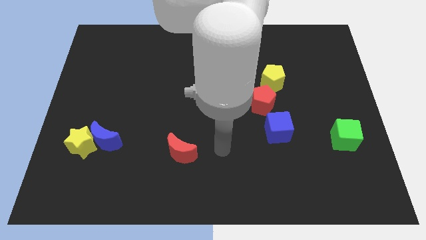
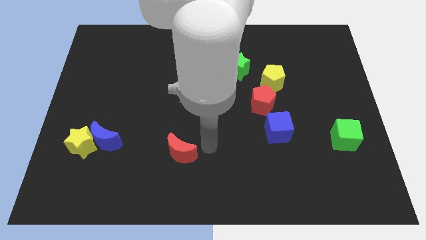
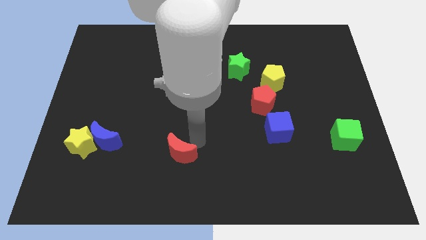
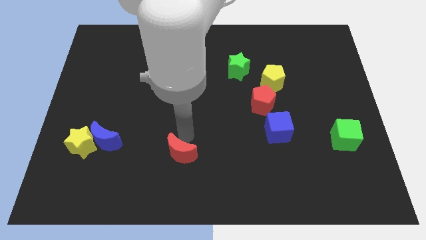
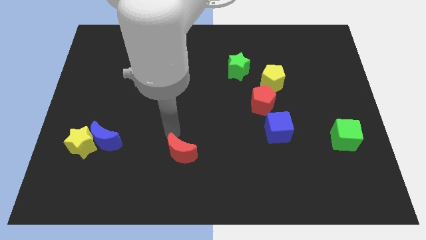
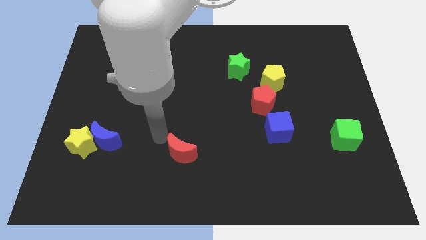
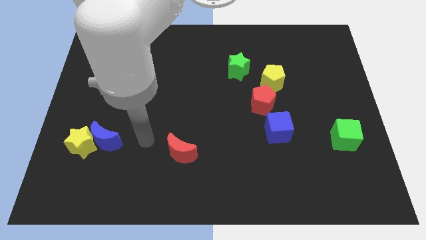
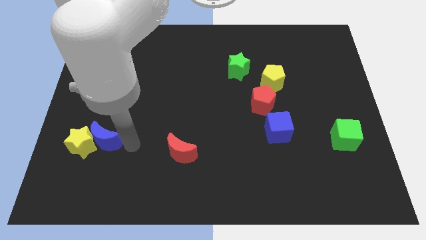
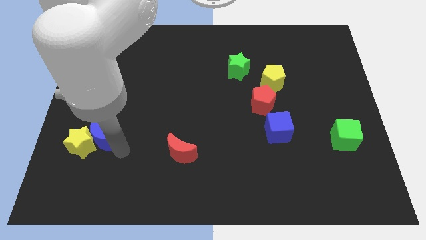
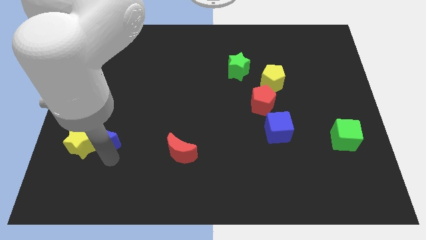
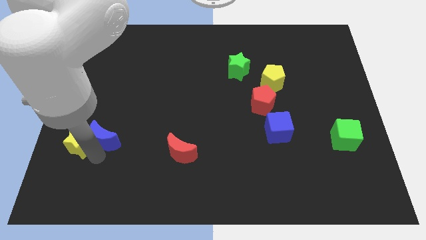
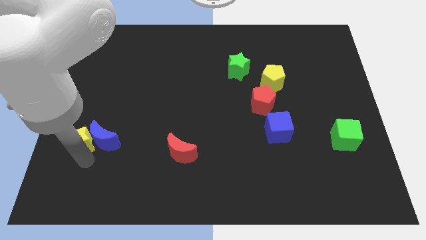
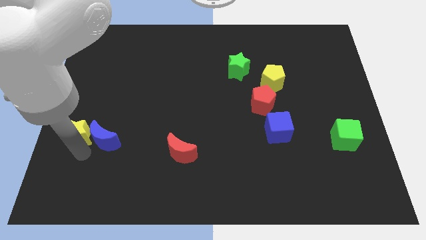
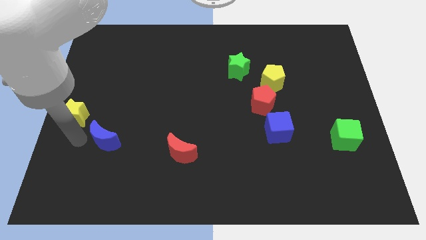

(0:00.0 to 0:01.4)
move the blue moon away from the yellow star

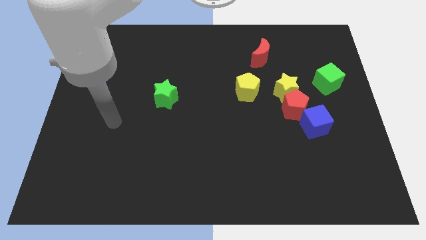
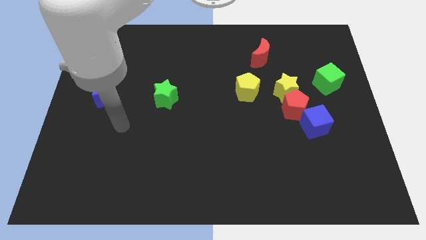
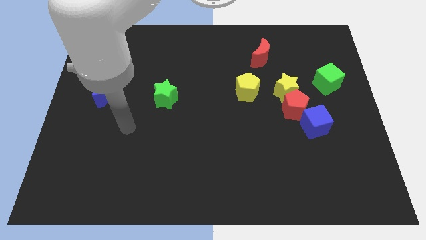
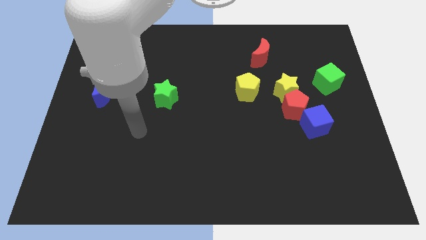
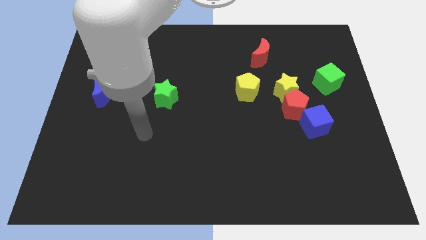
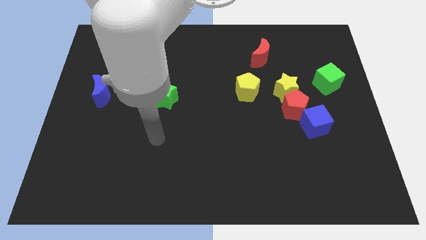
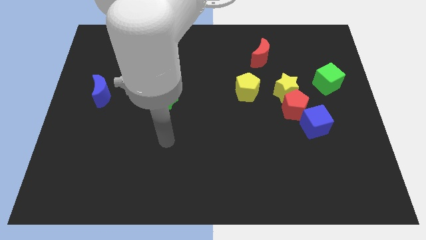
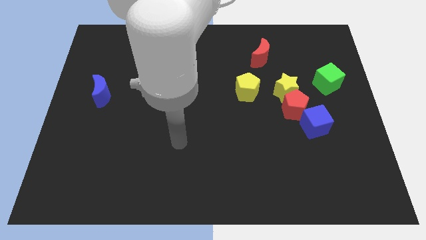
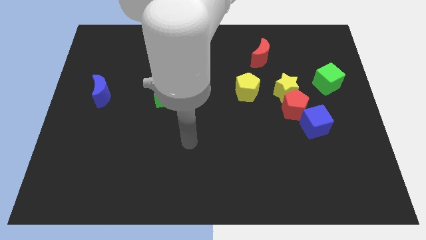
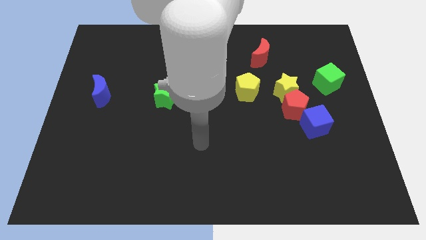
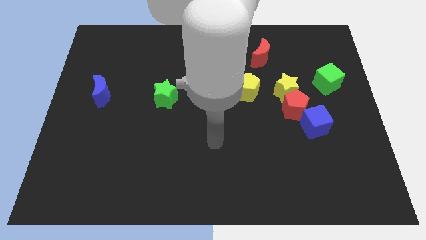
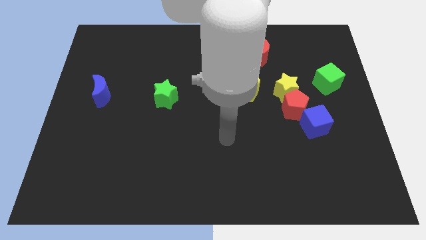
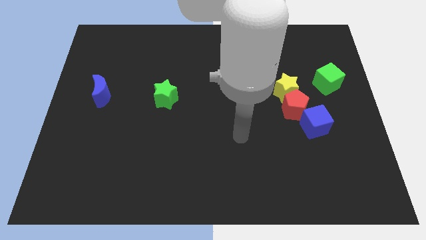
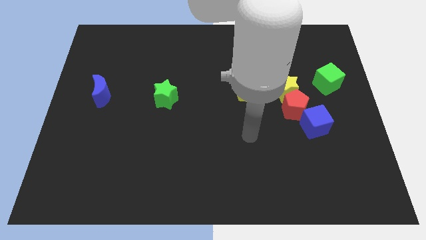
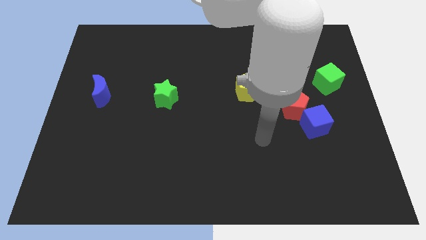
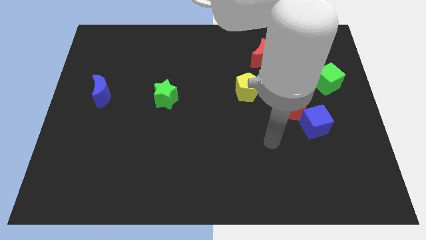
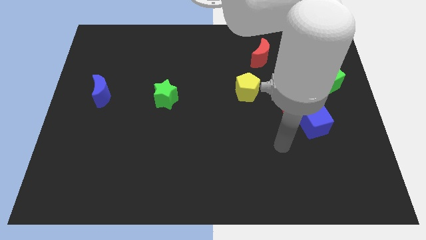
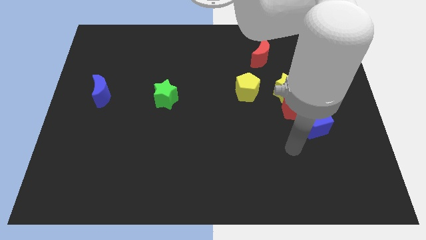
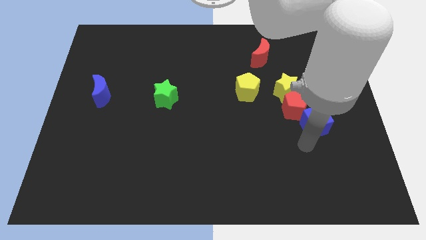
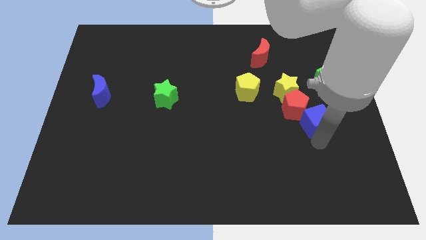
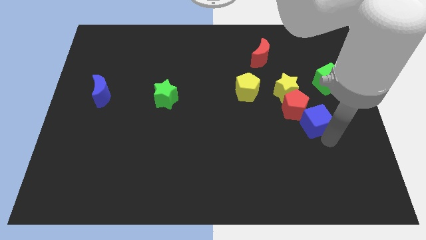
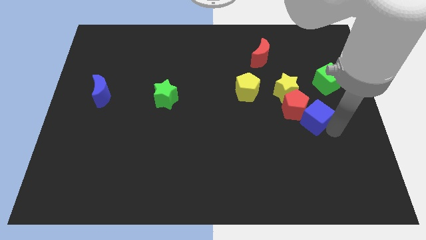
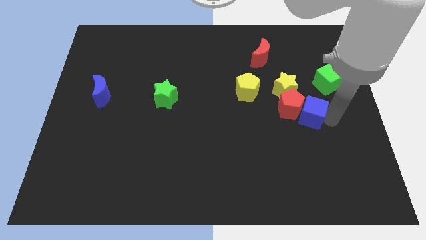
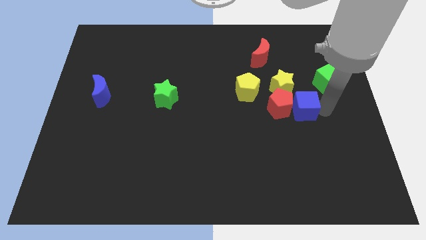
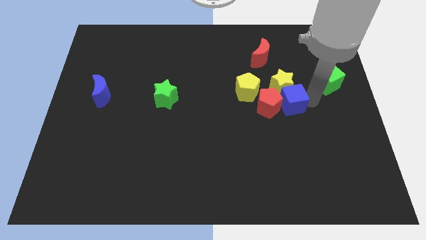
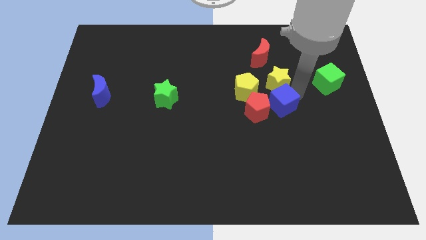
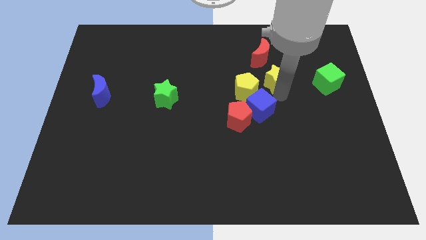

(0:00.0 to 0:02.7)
separate the red pentagon from the yellow star and blue cube

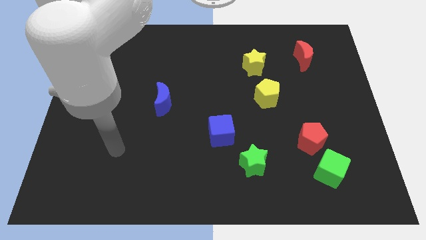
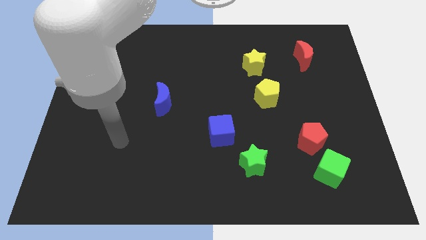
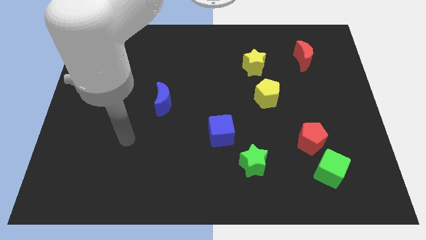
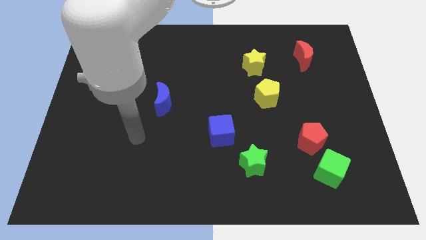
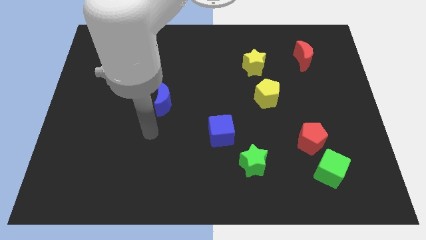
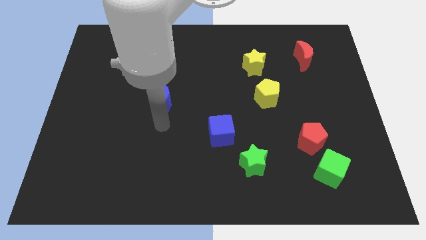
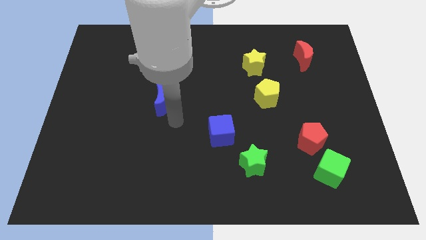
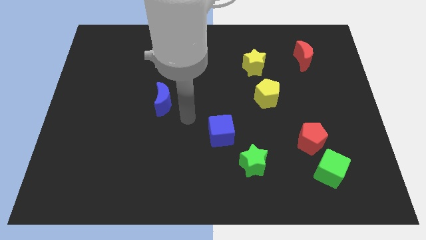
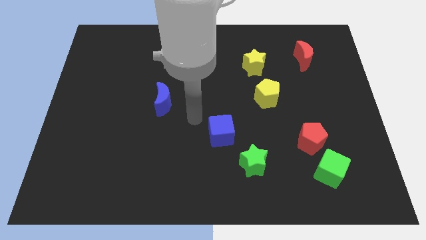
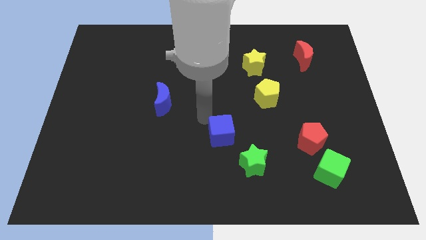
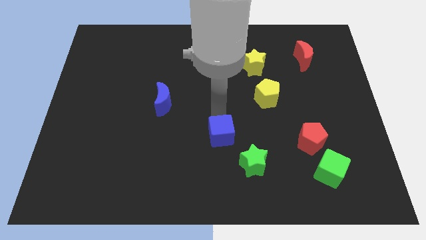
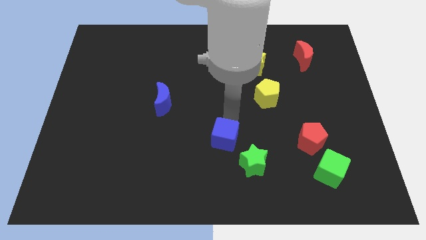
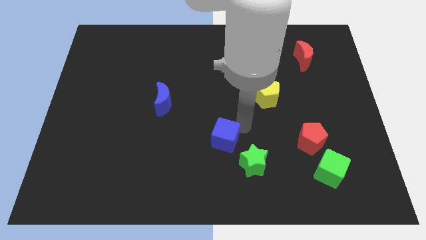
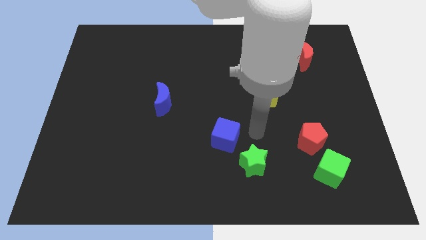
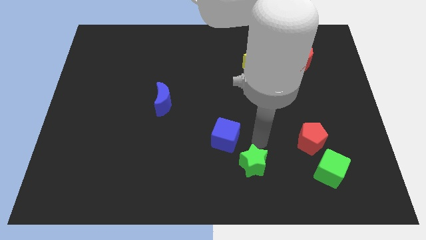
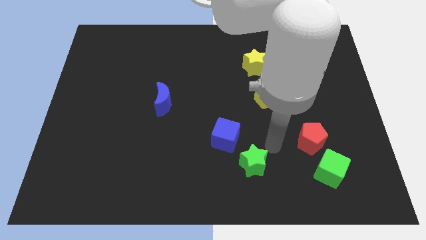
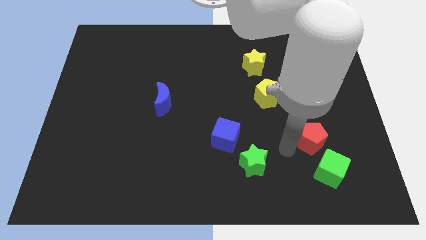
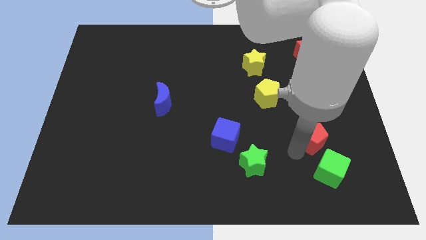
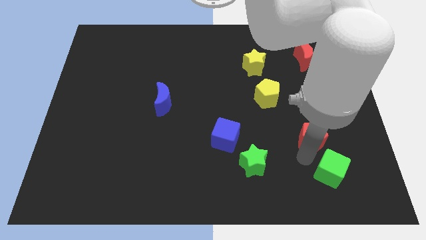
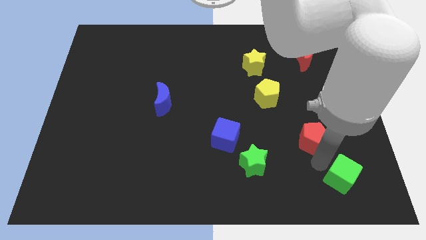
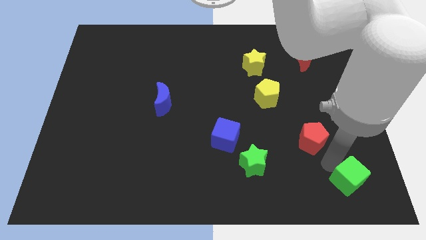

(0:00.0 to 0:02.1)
separate the red pentagon from the green cube

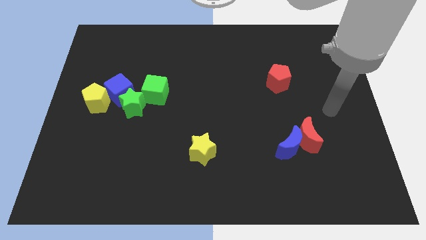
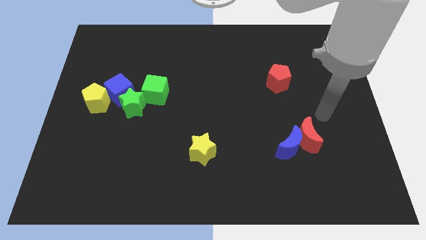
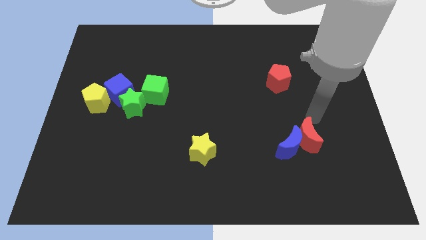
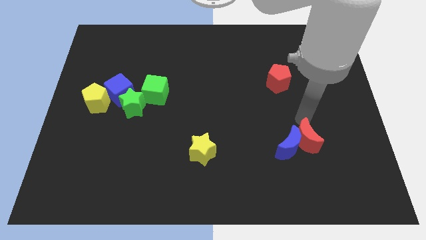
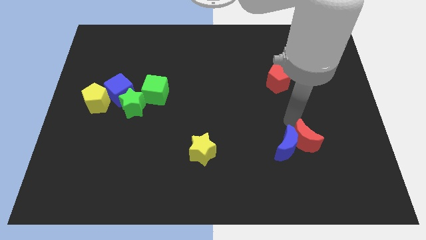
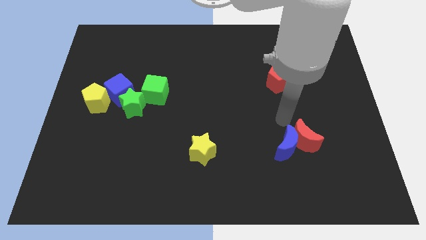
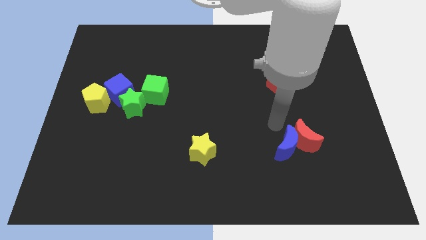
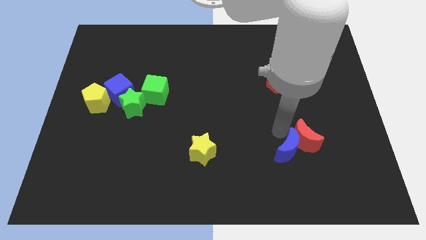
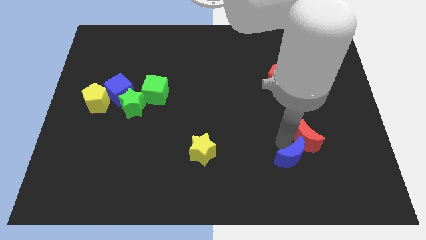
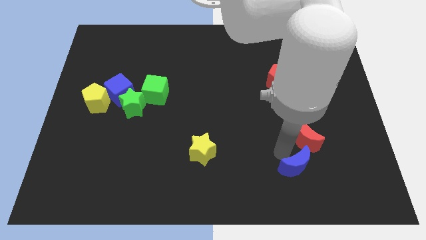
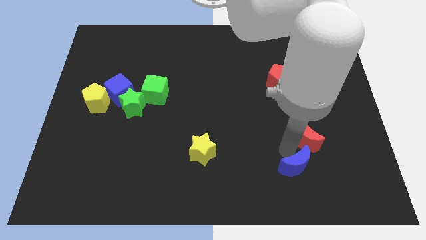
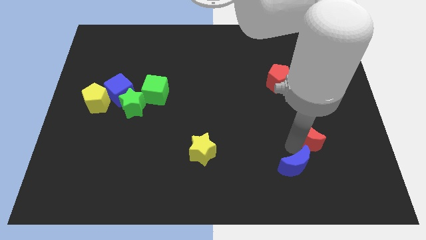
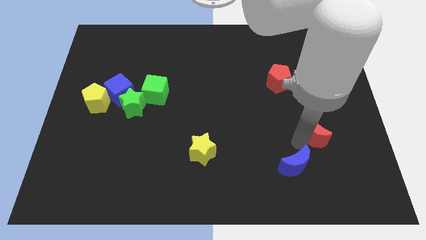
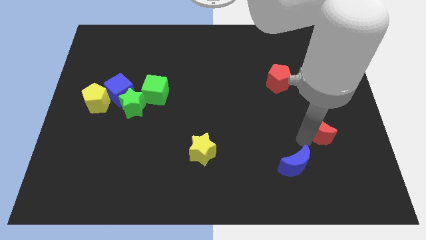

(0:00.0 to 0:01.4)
pull the red moon apart from the blue moon

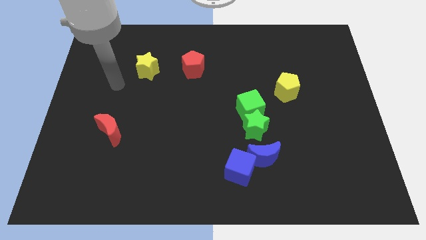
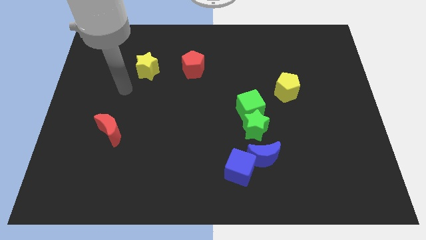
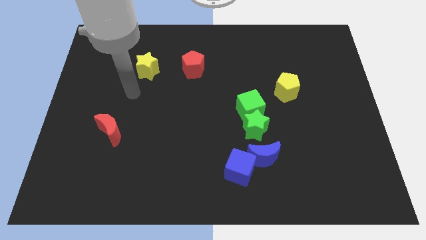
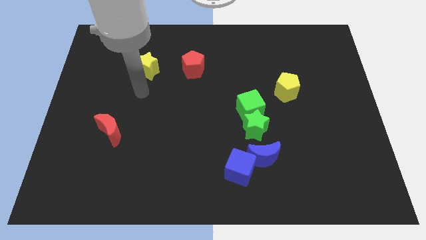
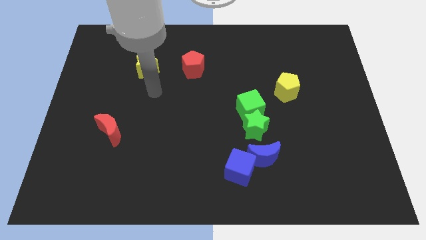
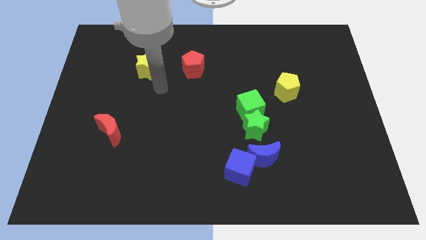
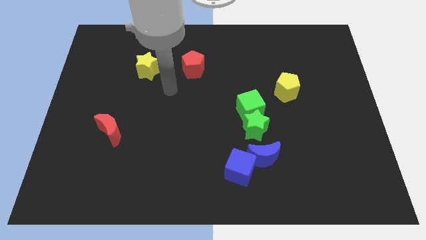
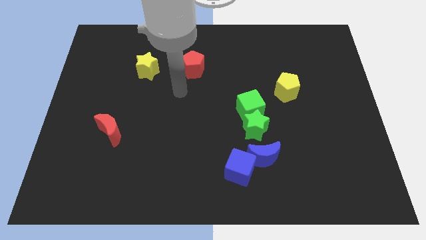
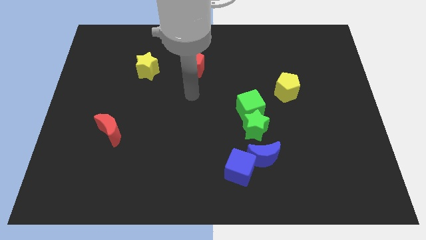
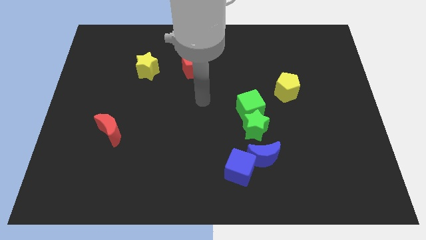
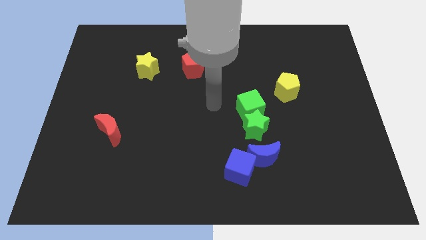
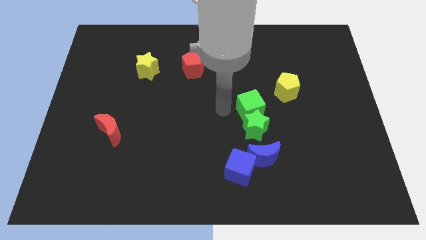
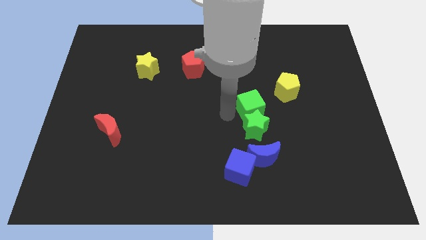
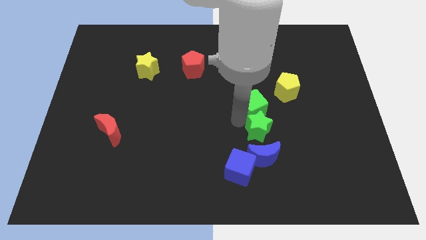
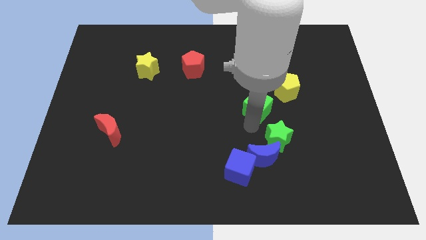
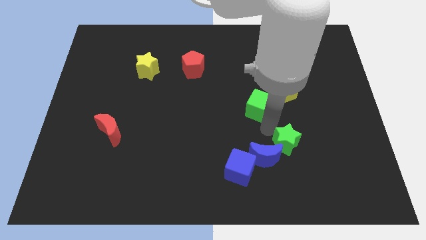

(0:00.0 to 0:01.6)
separate the green cube from the green star
